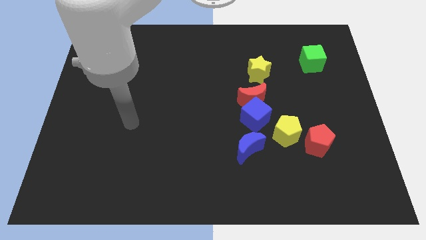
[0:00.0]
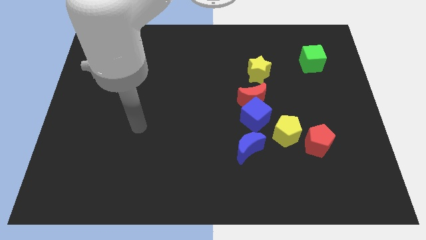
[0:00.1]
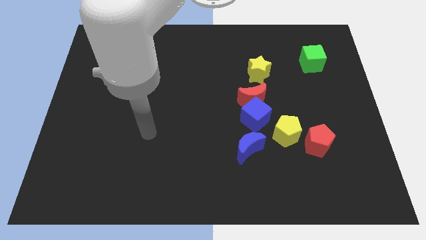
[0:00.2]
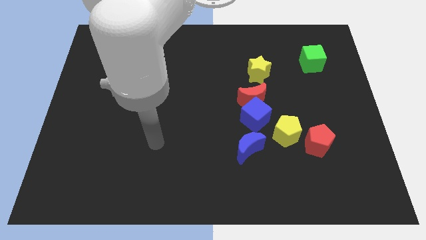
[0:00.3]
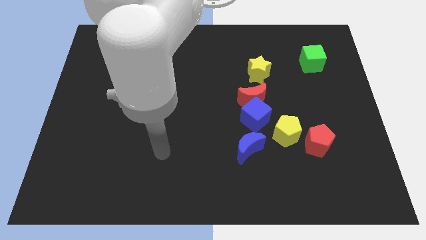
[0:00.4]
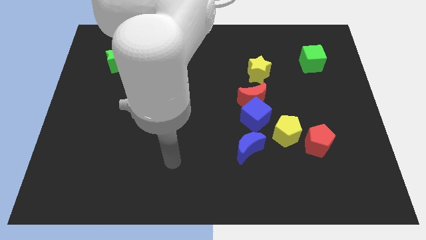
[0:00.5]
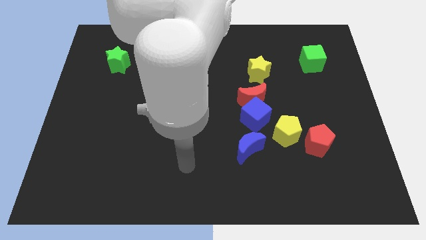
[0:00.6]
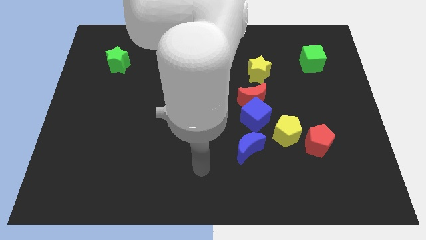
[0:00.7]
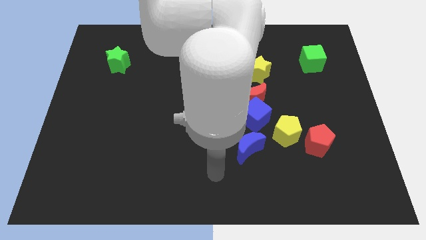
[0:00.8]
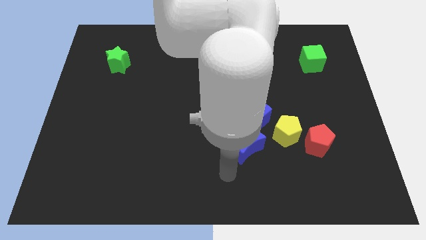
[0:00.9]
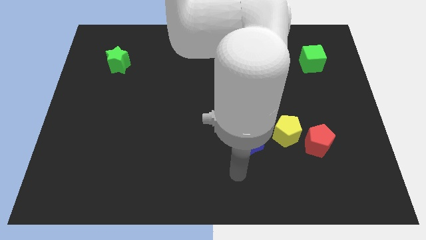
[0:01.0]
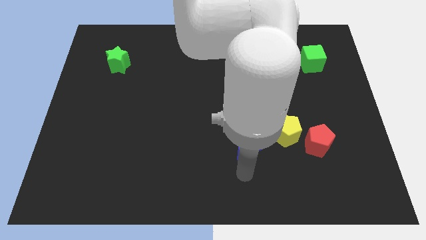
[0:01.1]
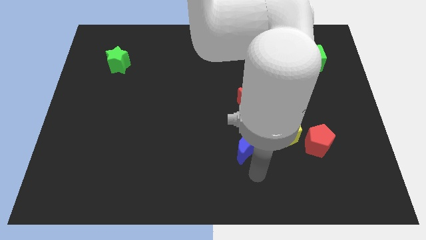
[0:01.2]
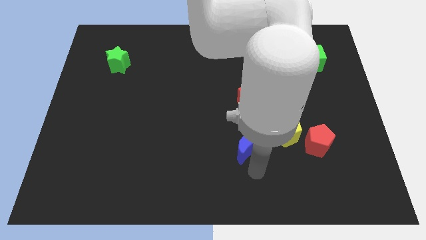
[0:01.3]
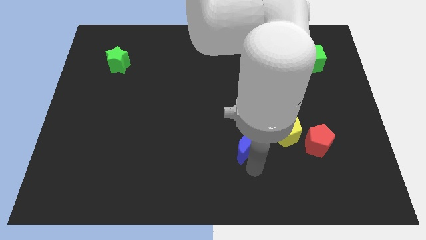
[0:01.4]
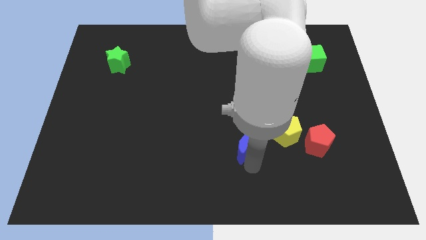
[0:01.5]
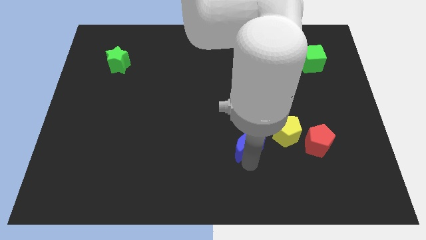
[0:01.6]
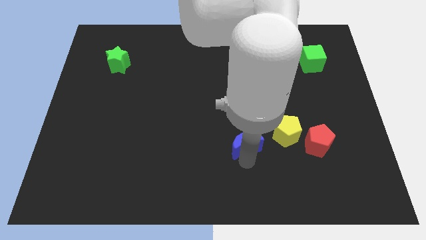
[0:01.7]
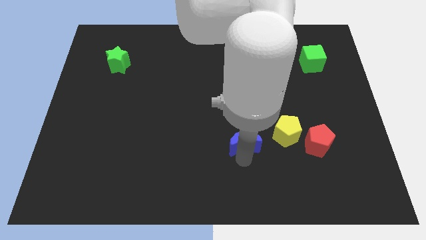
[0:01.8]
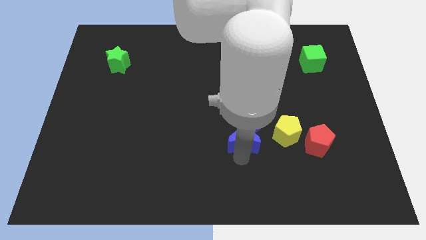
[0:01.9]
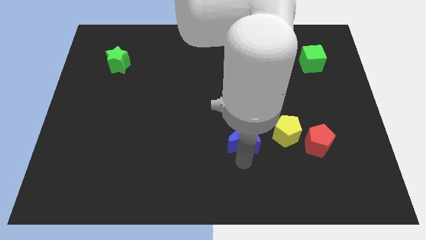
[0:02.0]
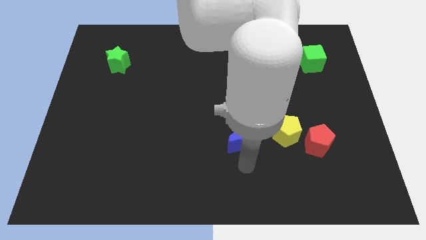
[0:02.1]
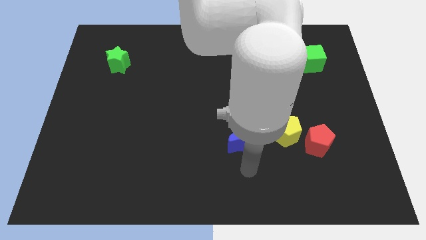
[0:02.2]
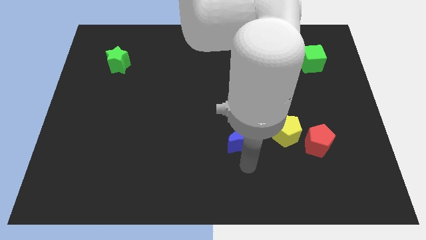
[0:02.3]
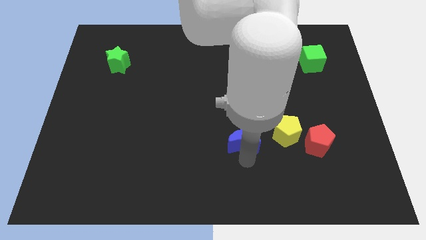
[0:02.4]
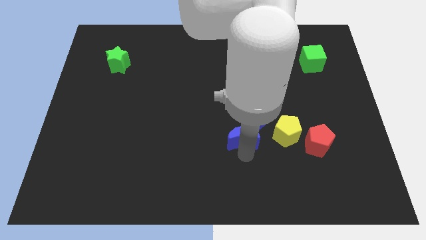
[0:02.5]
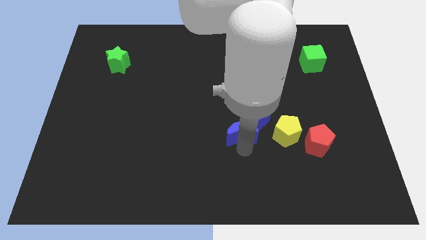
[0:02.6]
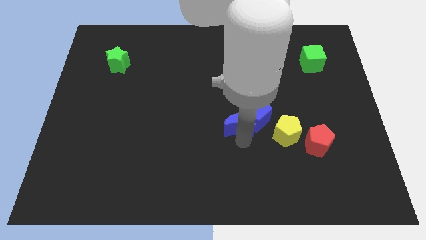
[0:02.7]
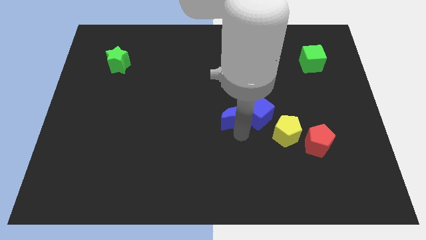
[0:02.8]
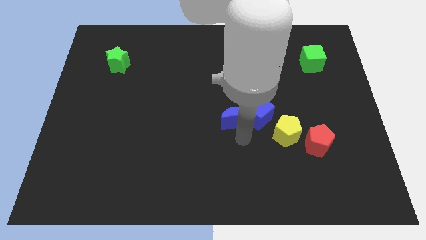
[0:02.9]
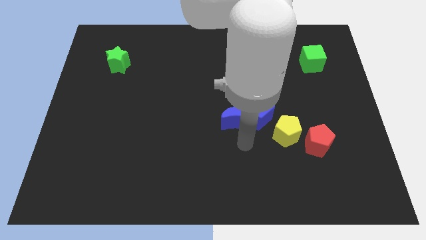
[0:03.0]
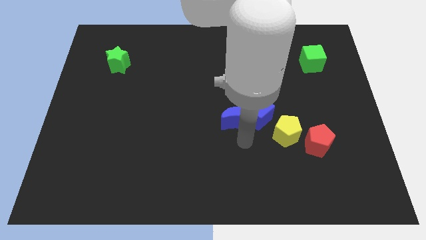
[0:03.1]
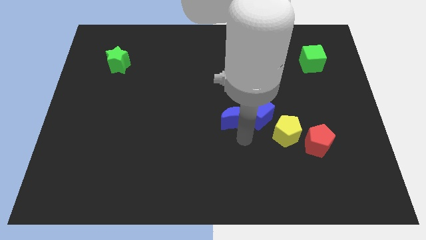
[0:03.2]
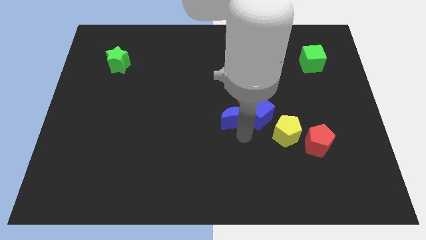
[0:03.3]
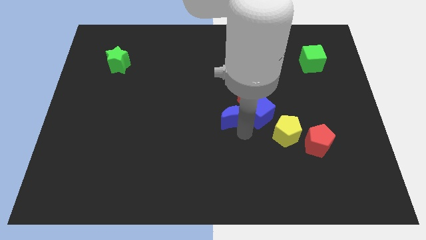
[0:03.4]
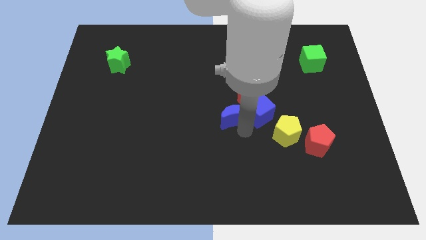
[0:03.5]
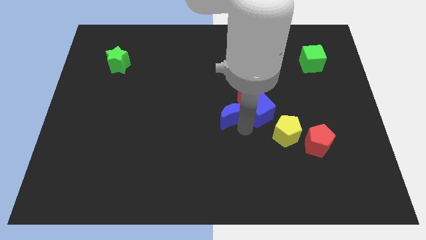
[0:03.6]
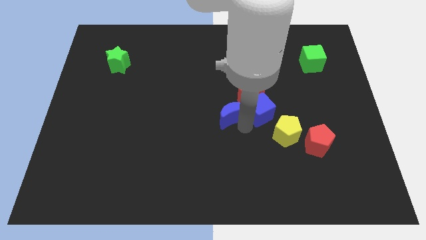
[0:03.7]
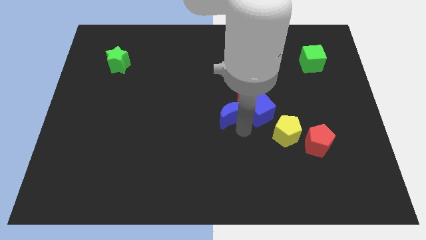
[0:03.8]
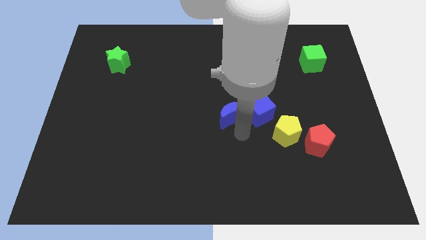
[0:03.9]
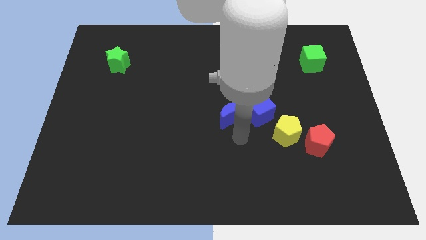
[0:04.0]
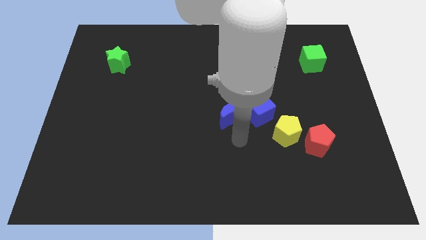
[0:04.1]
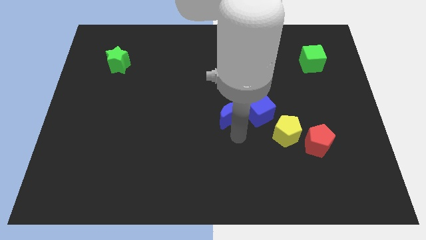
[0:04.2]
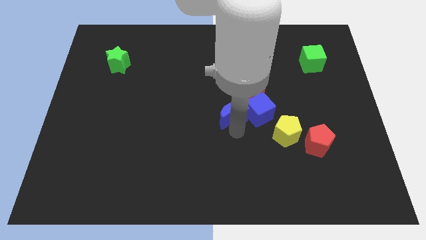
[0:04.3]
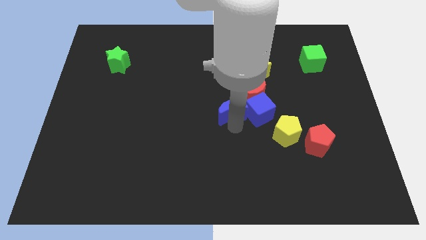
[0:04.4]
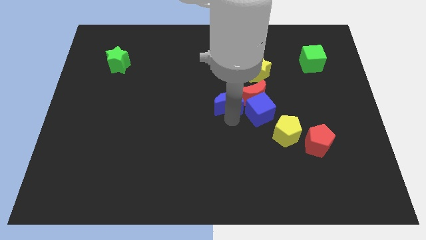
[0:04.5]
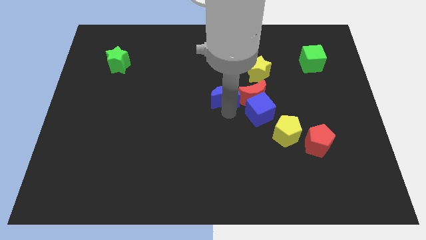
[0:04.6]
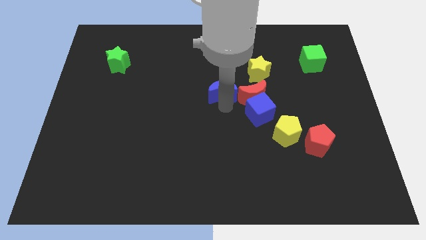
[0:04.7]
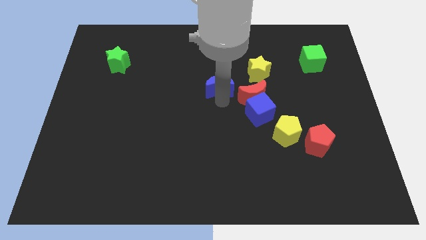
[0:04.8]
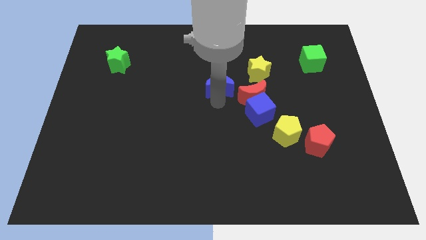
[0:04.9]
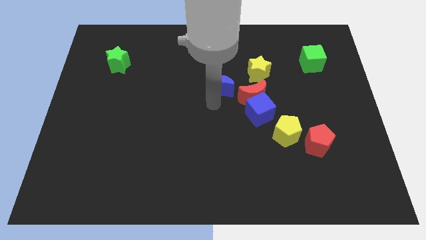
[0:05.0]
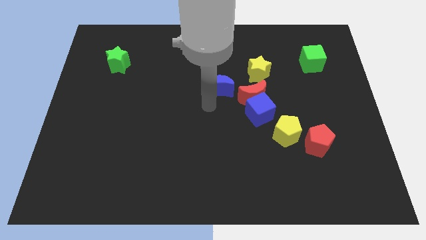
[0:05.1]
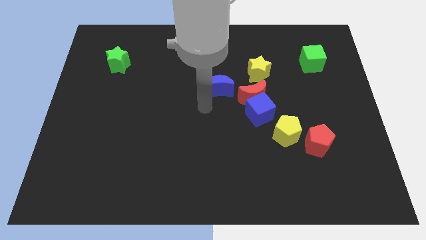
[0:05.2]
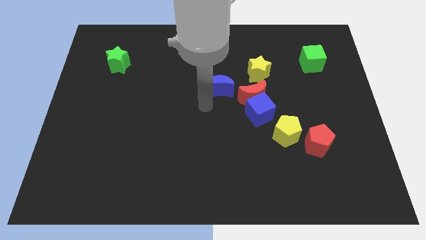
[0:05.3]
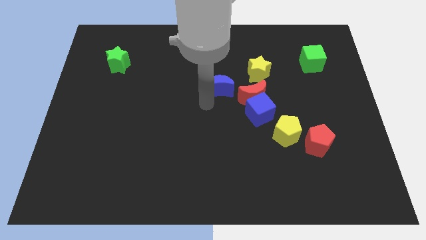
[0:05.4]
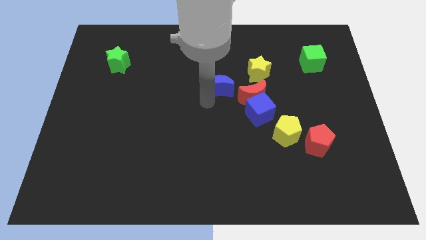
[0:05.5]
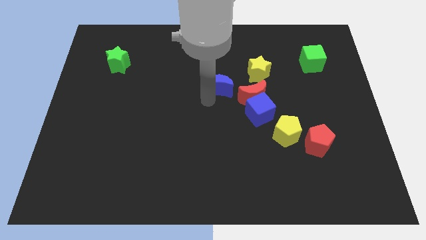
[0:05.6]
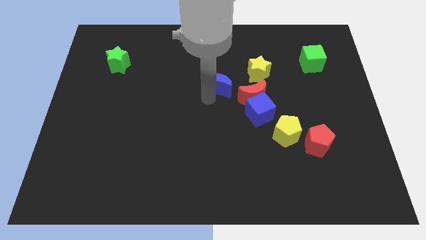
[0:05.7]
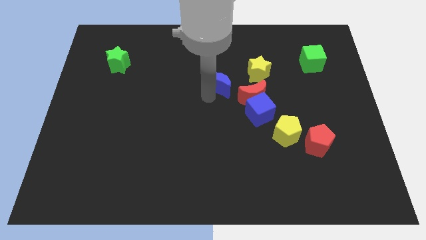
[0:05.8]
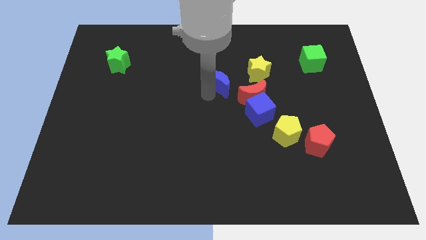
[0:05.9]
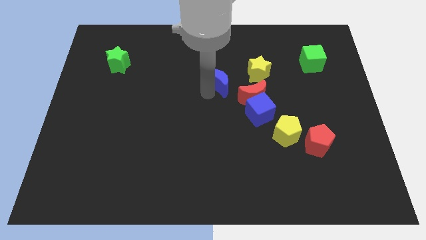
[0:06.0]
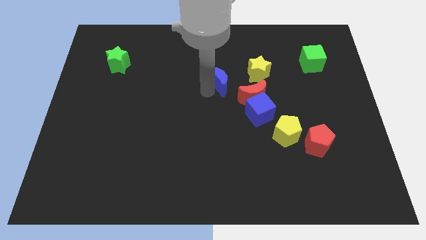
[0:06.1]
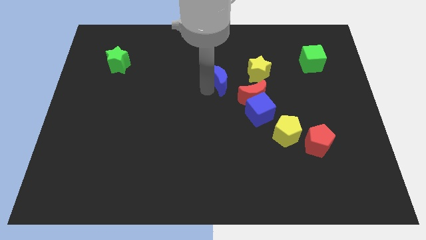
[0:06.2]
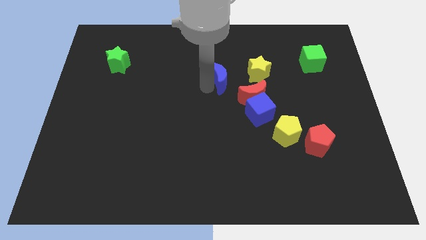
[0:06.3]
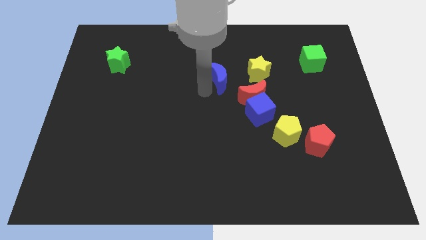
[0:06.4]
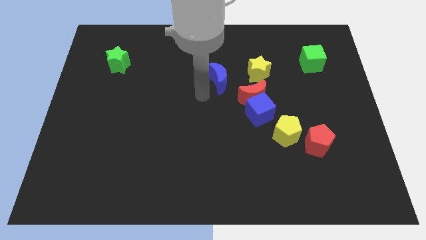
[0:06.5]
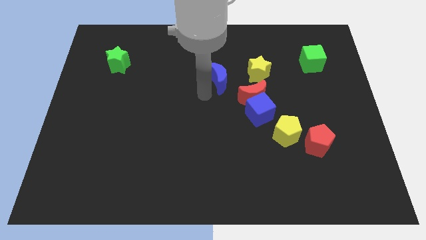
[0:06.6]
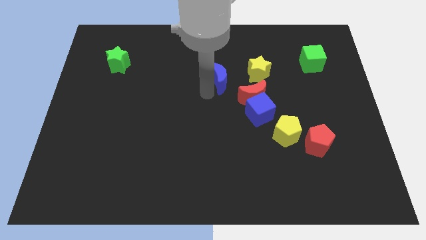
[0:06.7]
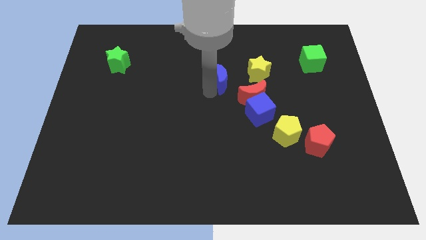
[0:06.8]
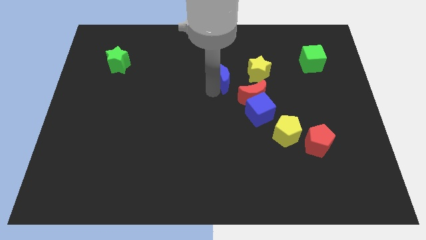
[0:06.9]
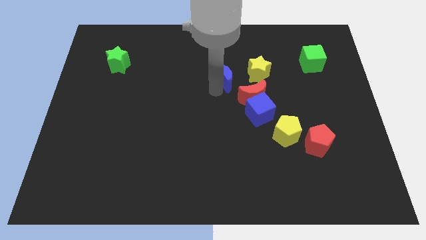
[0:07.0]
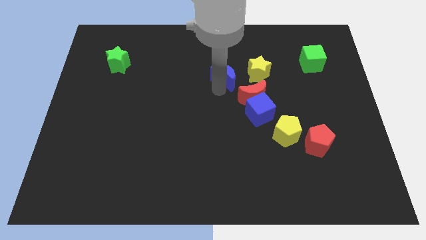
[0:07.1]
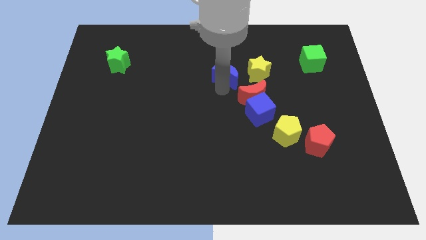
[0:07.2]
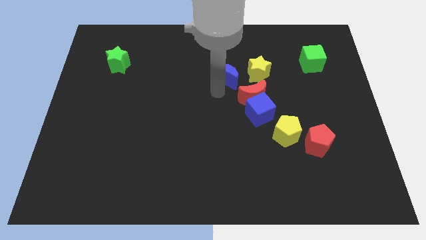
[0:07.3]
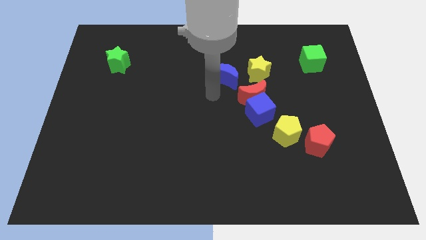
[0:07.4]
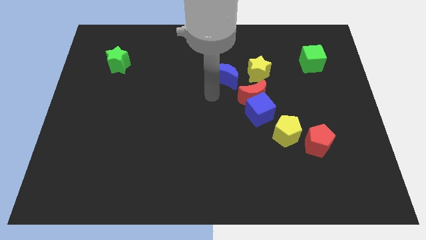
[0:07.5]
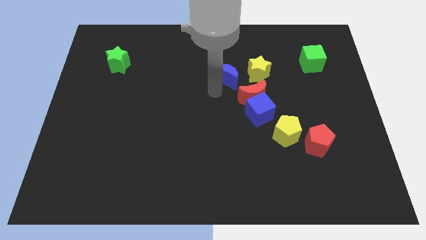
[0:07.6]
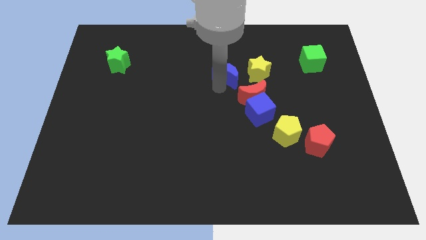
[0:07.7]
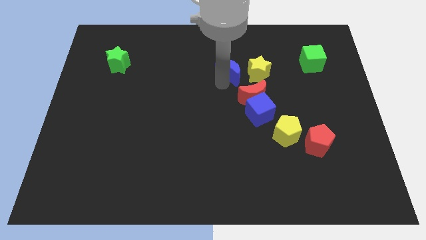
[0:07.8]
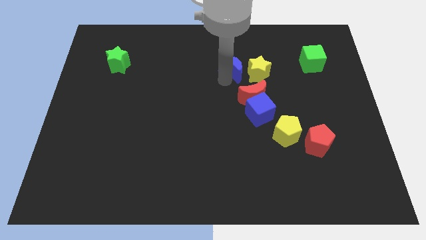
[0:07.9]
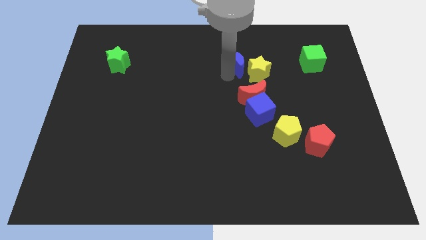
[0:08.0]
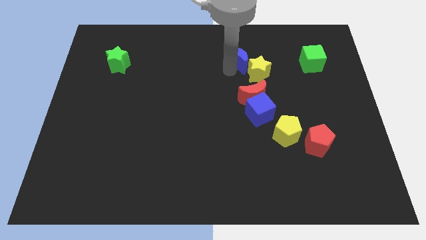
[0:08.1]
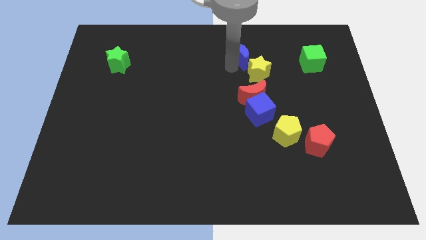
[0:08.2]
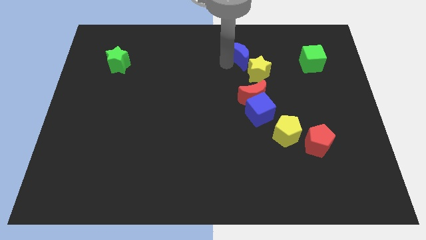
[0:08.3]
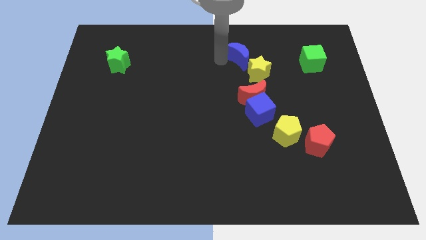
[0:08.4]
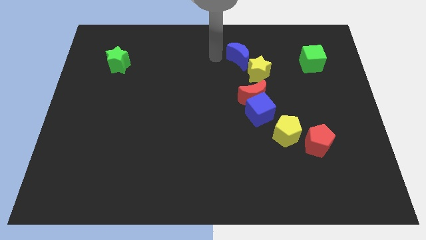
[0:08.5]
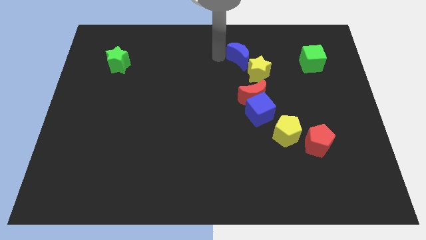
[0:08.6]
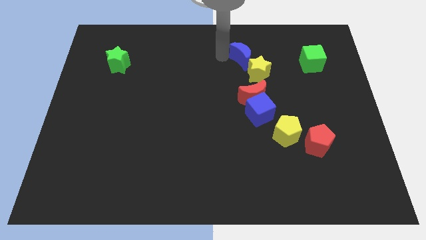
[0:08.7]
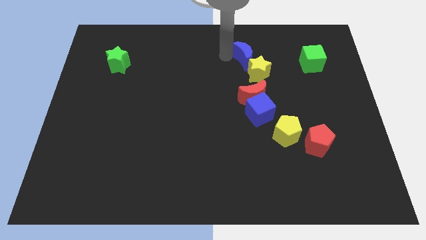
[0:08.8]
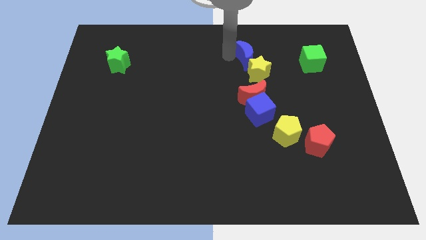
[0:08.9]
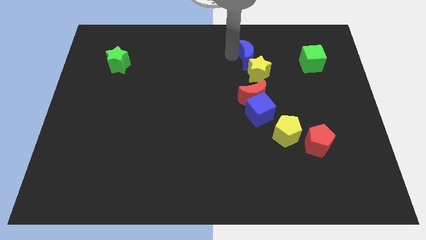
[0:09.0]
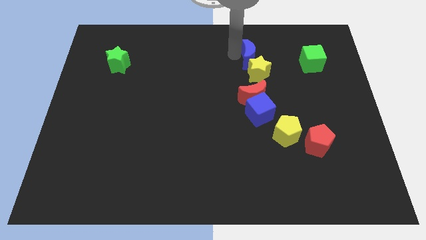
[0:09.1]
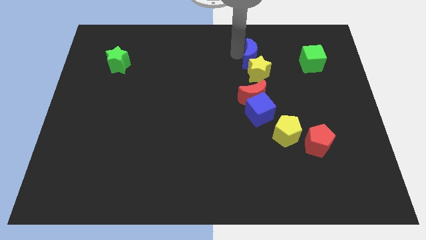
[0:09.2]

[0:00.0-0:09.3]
put the blue moon left of the green cube
